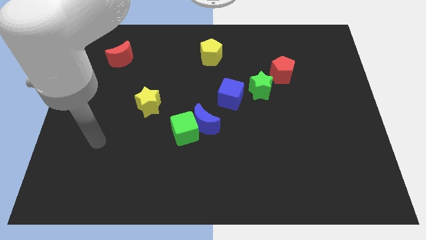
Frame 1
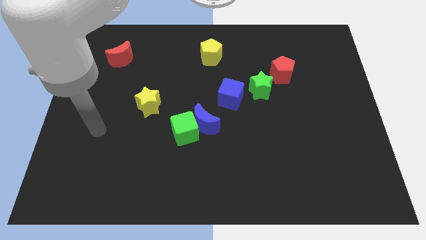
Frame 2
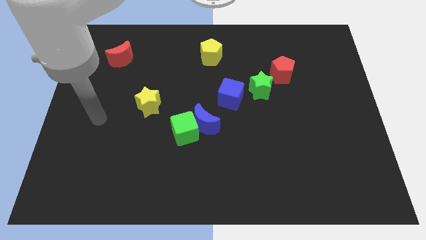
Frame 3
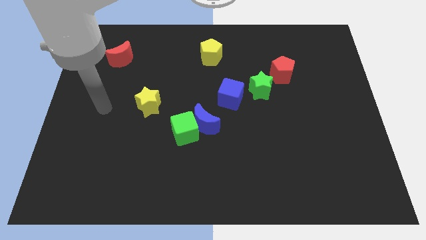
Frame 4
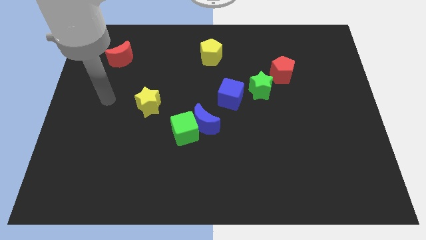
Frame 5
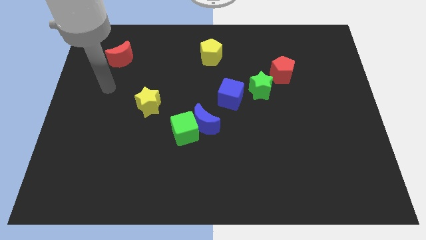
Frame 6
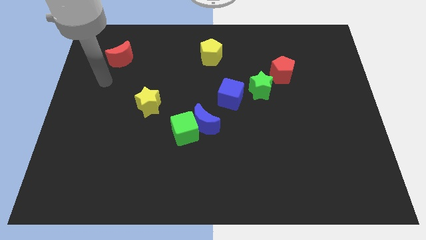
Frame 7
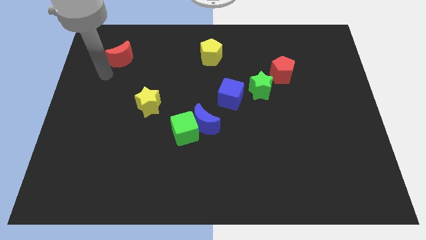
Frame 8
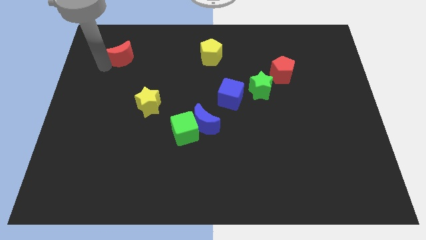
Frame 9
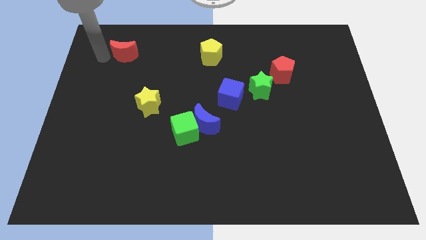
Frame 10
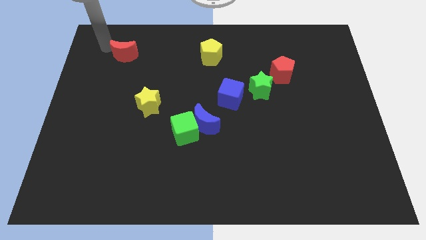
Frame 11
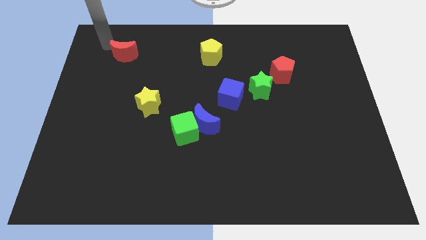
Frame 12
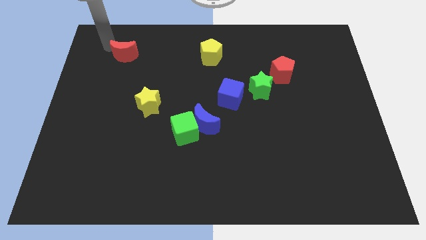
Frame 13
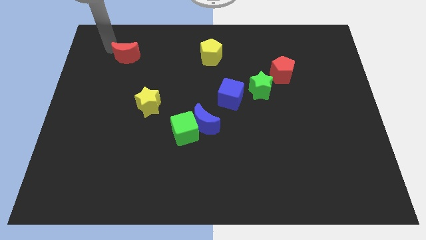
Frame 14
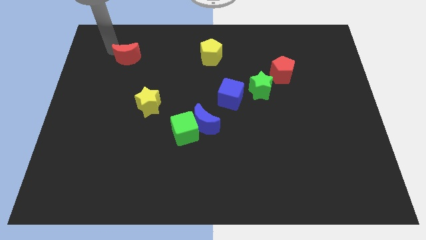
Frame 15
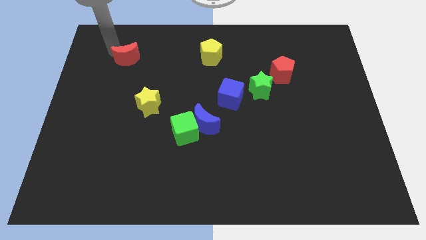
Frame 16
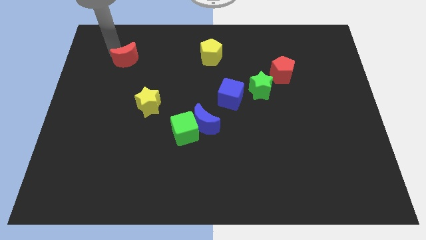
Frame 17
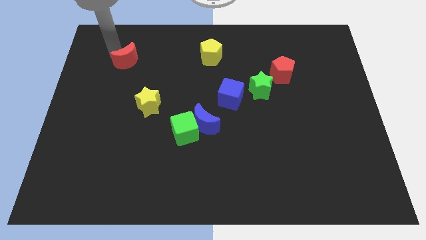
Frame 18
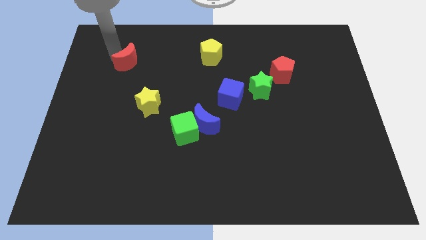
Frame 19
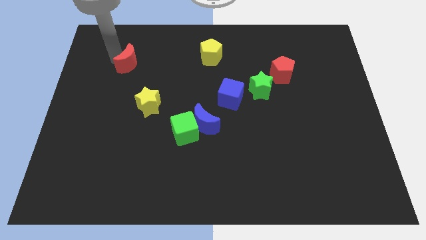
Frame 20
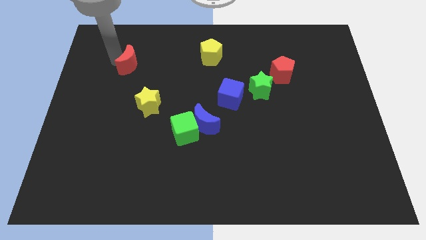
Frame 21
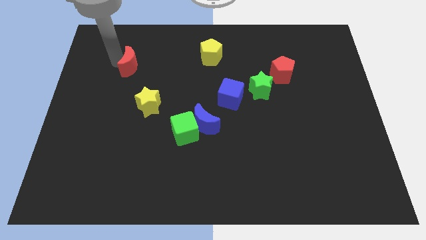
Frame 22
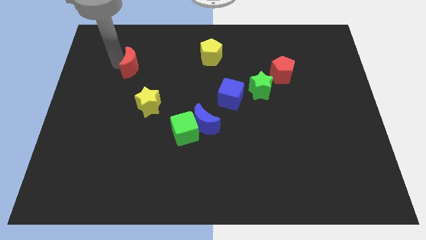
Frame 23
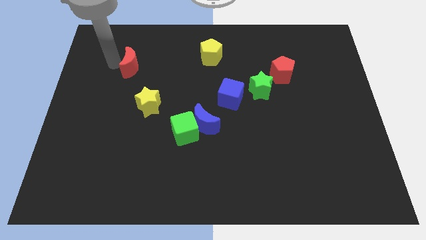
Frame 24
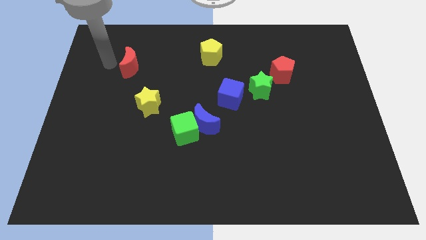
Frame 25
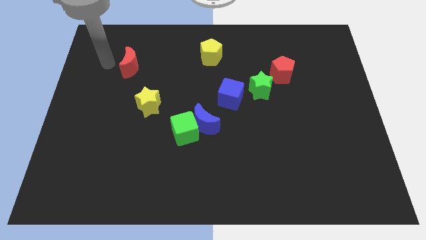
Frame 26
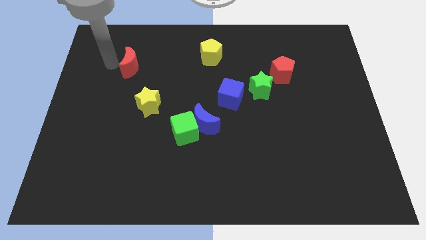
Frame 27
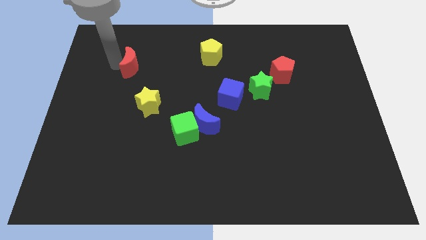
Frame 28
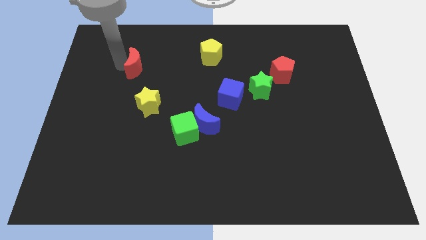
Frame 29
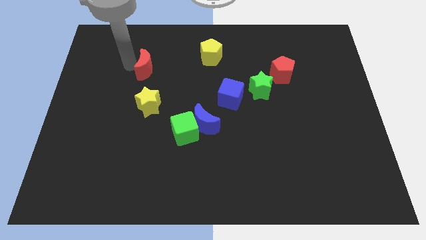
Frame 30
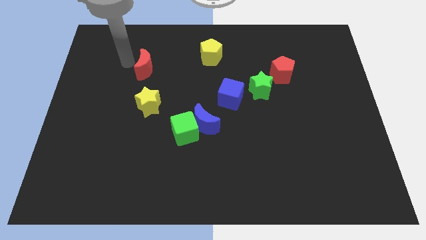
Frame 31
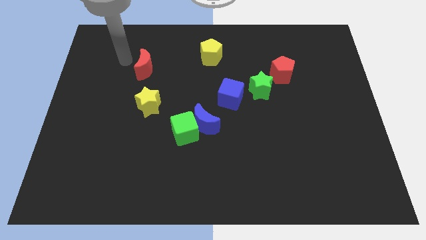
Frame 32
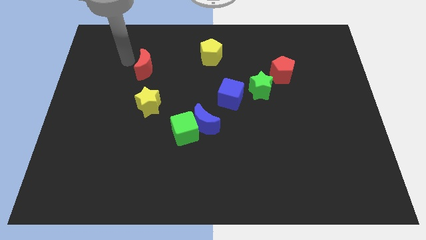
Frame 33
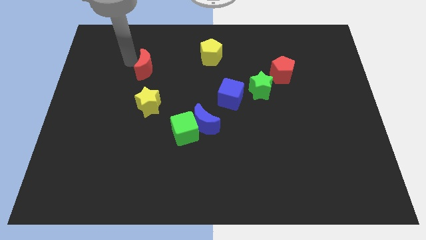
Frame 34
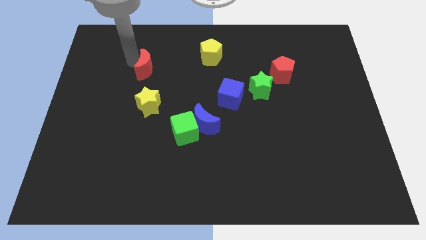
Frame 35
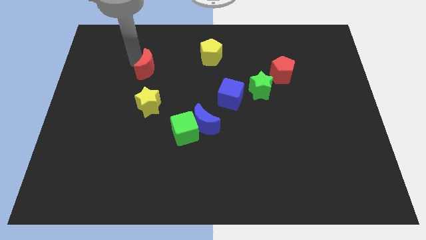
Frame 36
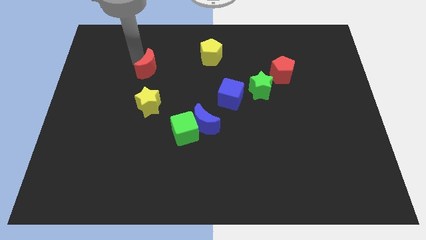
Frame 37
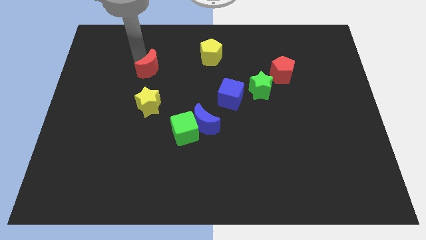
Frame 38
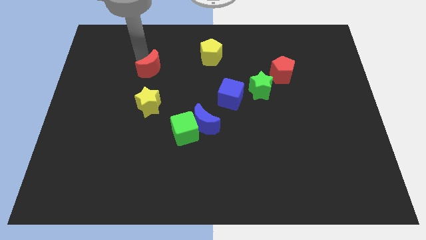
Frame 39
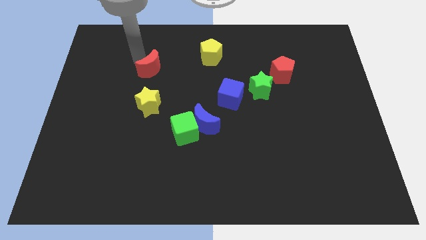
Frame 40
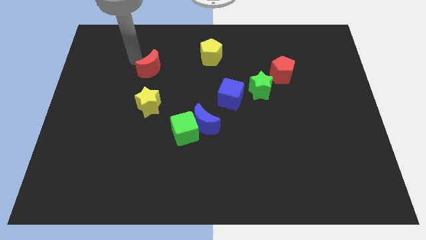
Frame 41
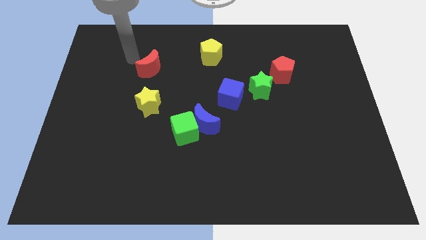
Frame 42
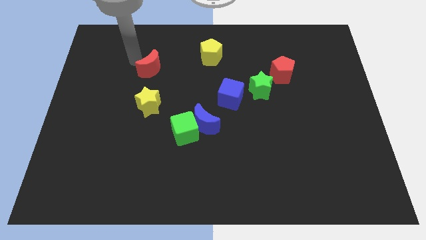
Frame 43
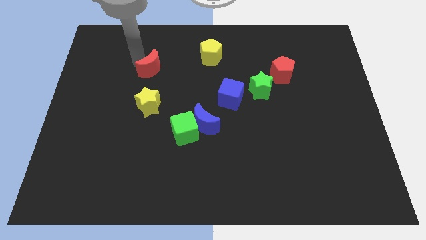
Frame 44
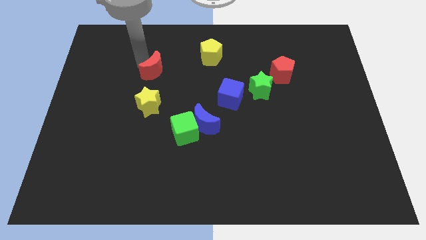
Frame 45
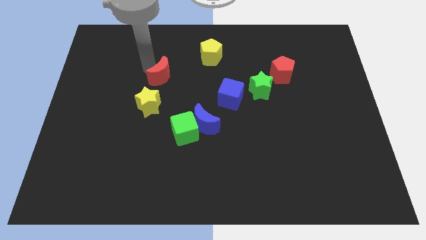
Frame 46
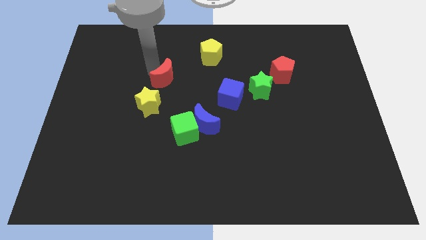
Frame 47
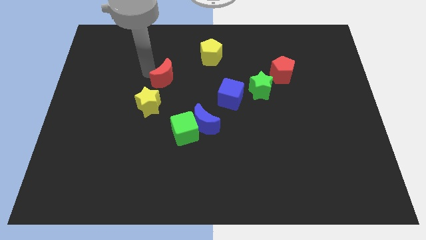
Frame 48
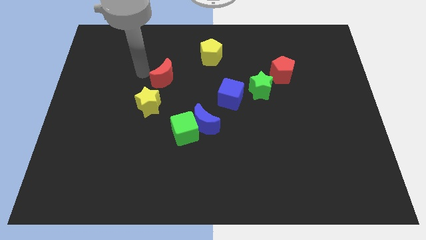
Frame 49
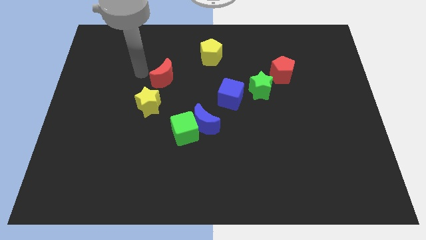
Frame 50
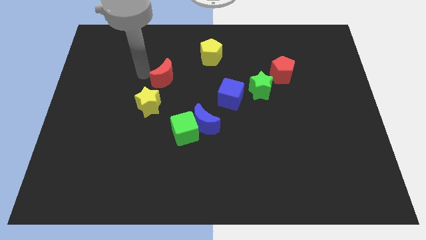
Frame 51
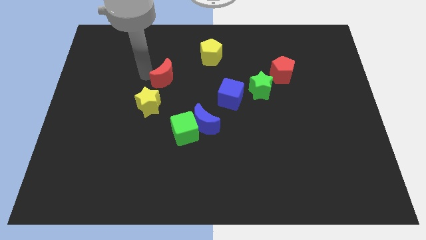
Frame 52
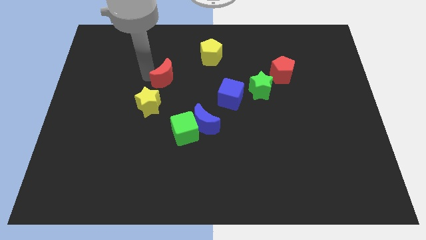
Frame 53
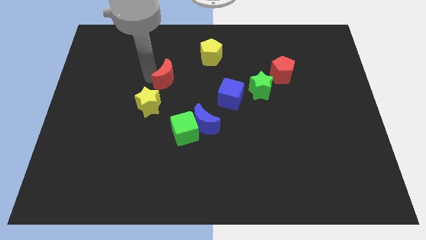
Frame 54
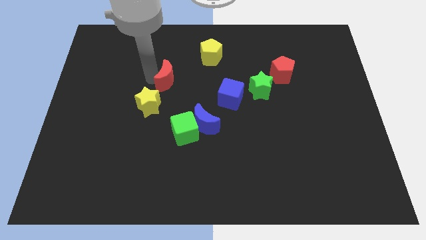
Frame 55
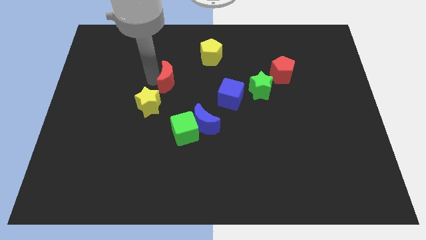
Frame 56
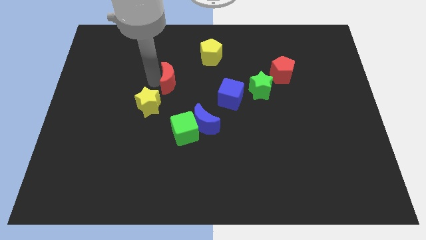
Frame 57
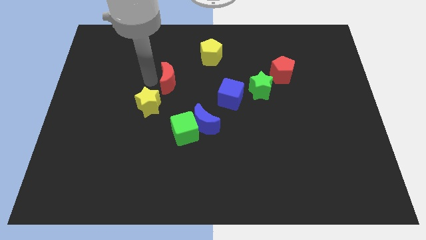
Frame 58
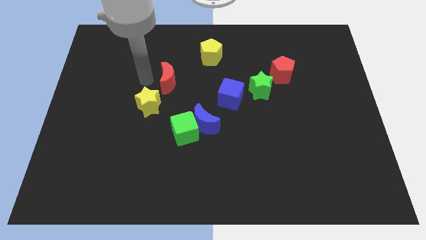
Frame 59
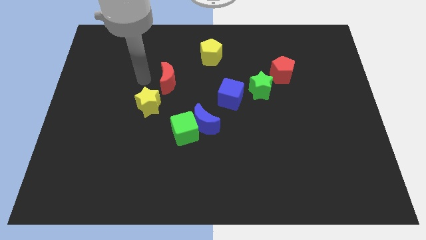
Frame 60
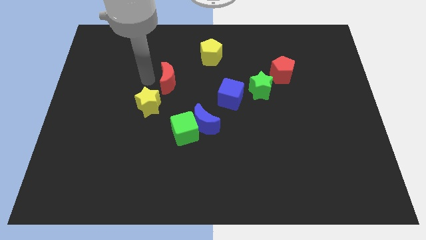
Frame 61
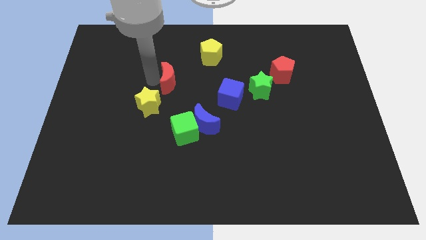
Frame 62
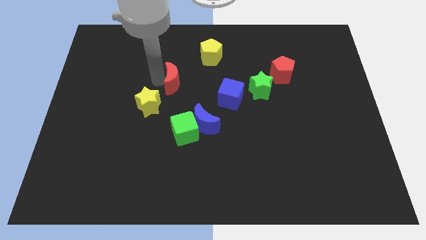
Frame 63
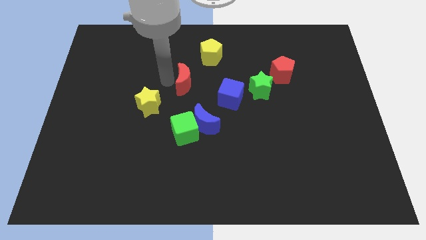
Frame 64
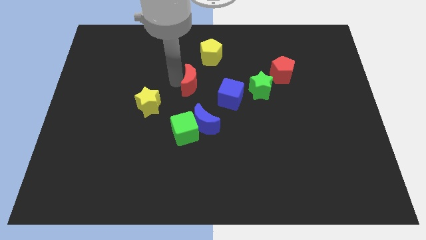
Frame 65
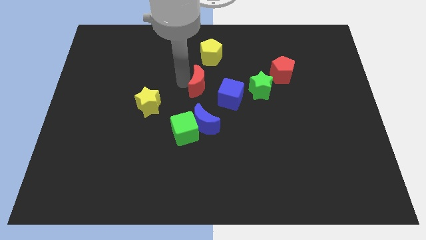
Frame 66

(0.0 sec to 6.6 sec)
push the red moon left of the green star

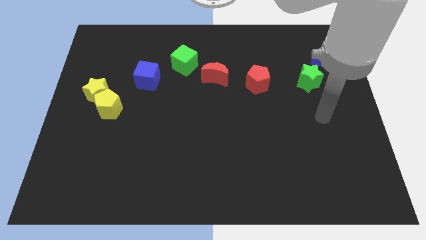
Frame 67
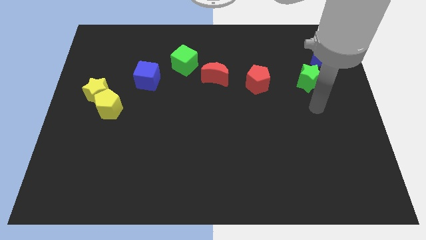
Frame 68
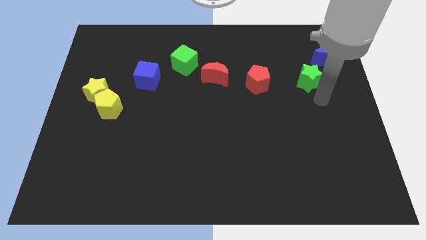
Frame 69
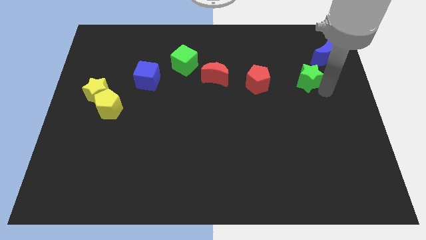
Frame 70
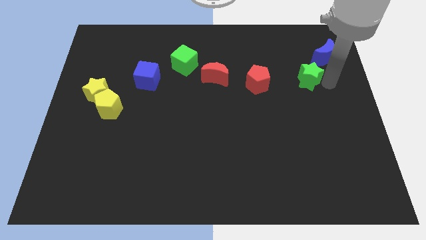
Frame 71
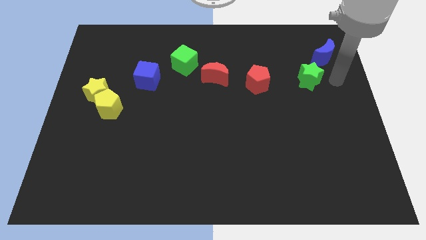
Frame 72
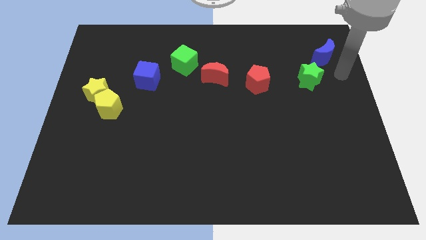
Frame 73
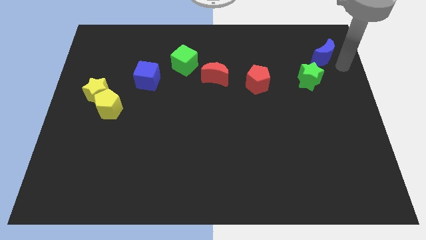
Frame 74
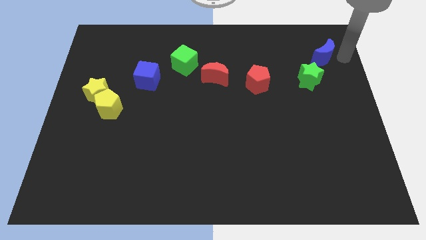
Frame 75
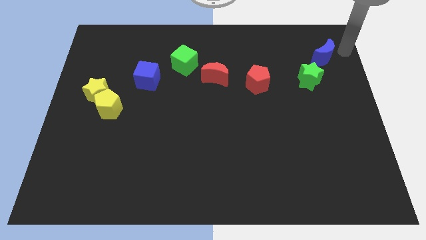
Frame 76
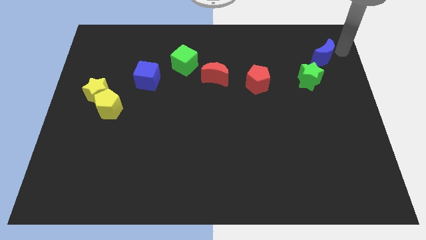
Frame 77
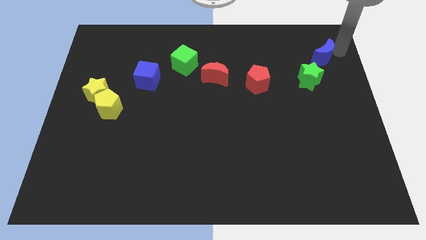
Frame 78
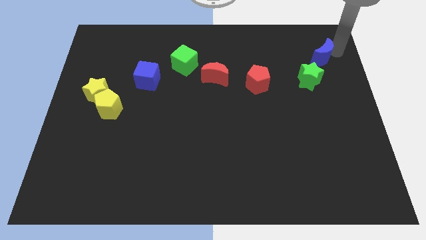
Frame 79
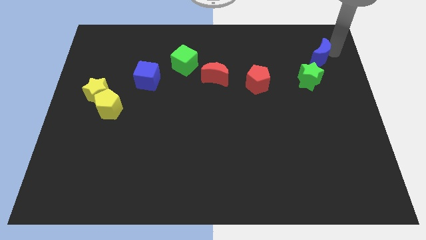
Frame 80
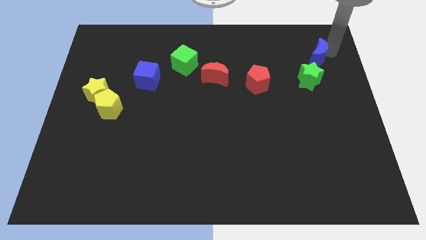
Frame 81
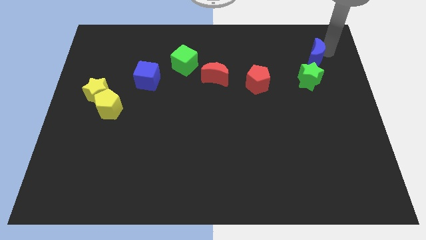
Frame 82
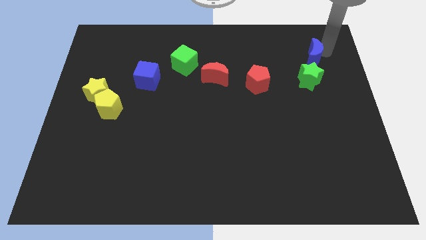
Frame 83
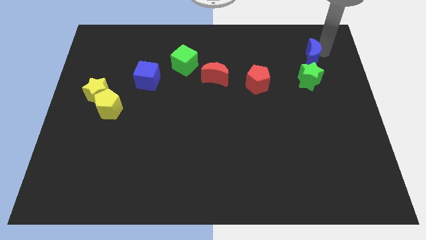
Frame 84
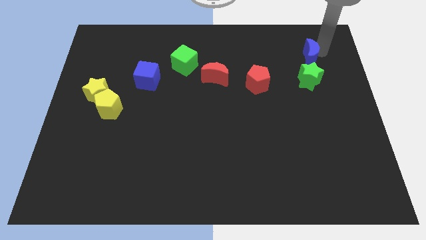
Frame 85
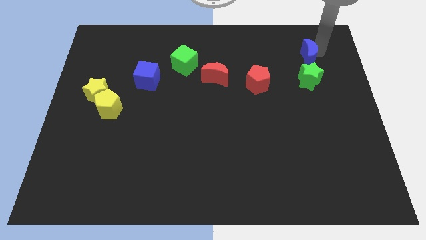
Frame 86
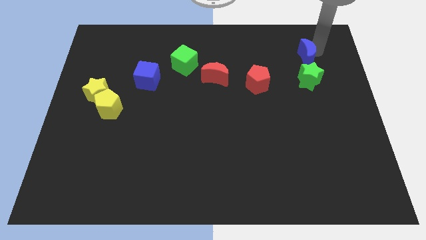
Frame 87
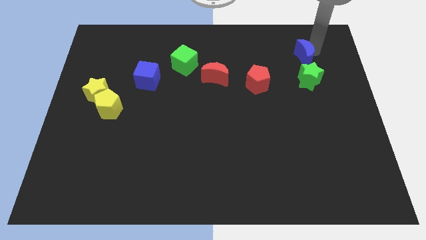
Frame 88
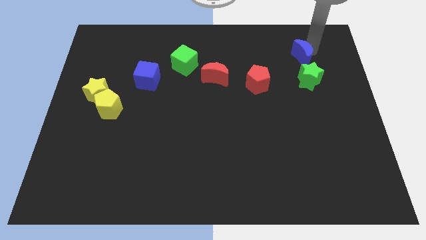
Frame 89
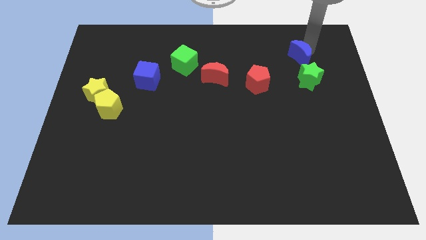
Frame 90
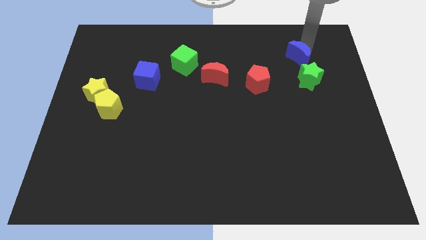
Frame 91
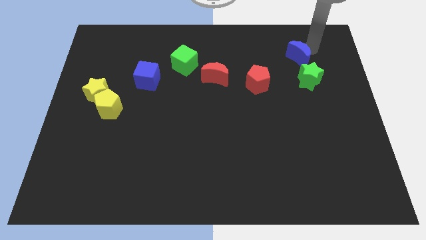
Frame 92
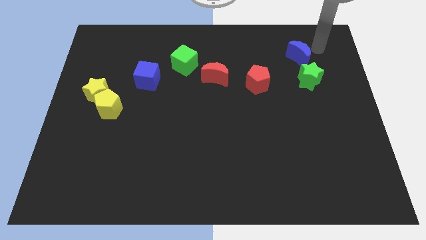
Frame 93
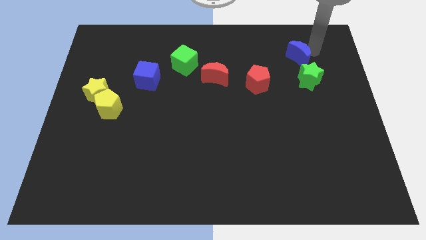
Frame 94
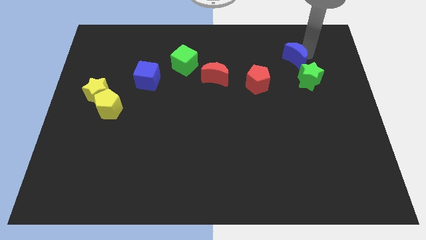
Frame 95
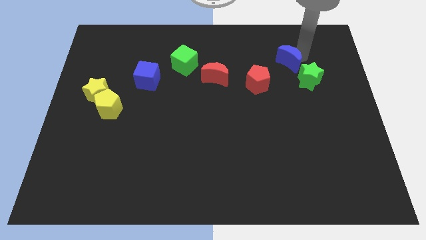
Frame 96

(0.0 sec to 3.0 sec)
slide the blue moon diagonally up and to the right of the red pentagon
